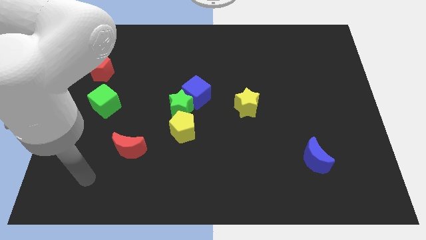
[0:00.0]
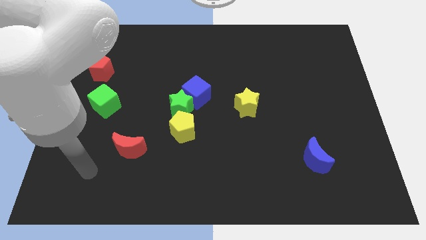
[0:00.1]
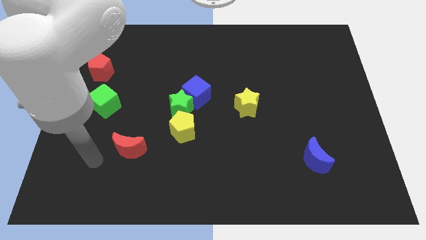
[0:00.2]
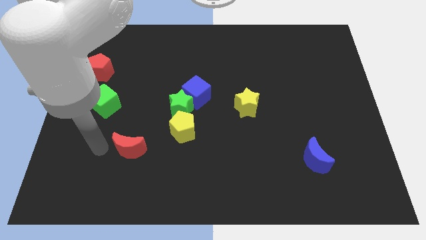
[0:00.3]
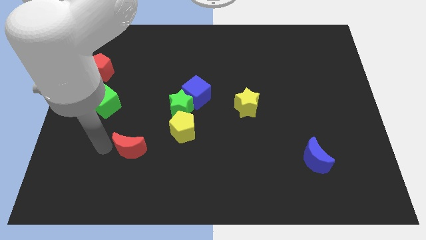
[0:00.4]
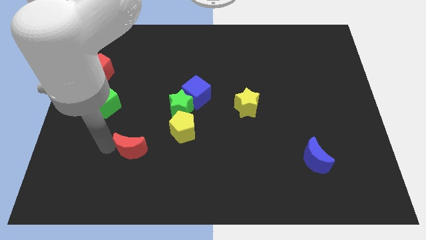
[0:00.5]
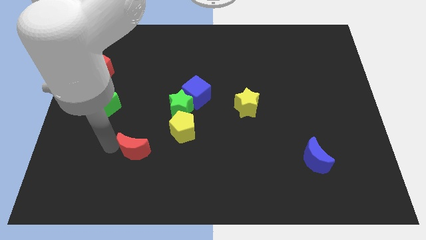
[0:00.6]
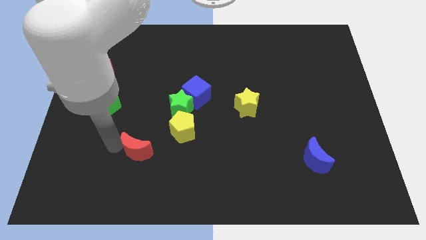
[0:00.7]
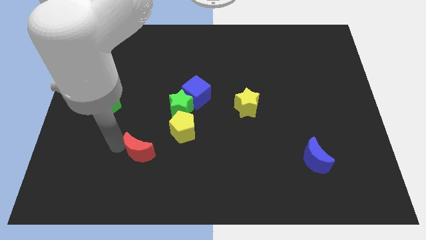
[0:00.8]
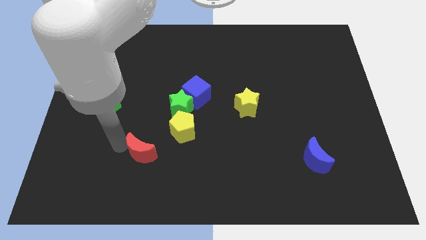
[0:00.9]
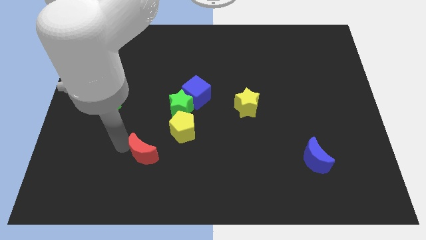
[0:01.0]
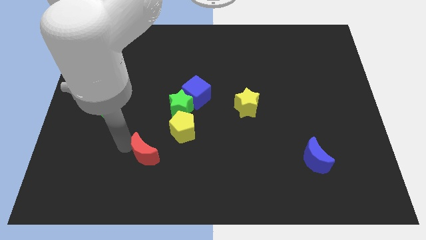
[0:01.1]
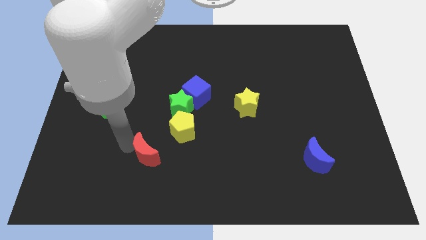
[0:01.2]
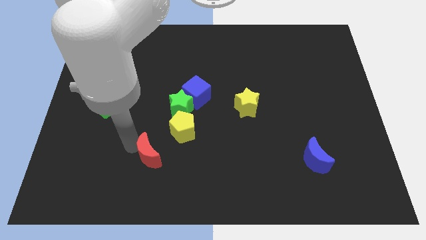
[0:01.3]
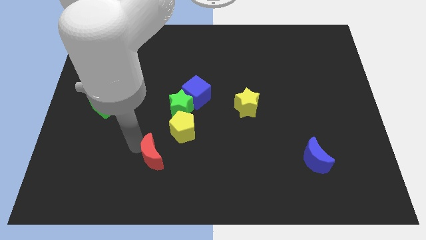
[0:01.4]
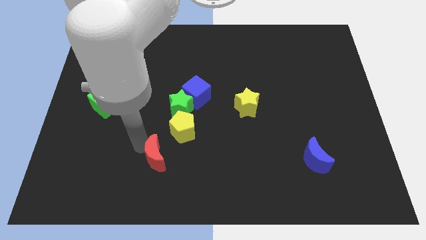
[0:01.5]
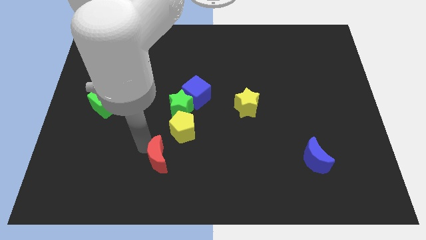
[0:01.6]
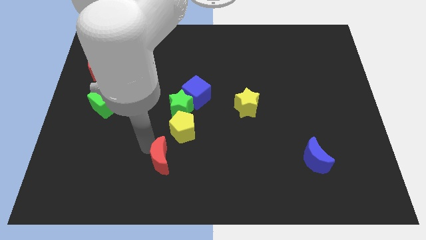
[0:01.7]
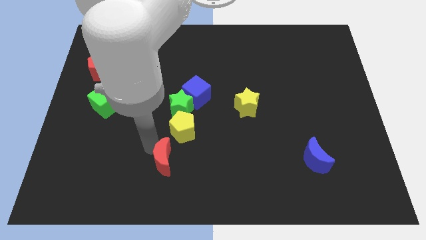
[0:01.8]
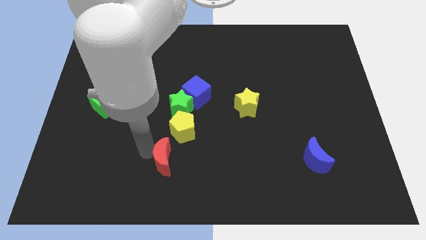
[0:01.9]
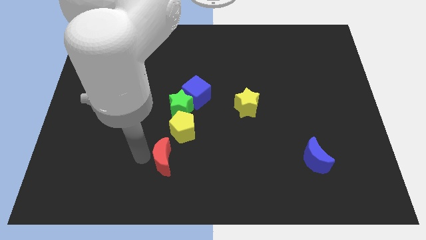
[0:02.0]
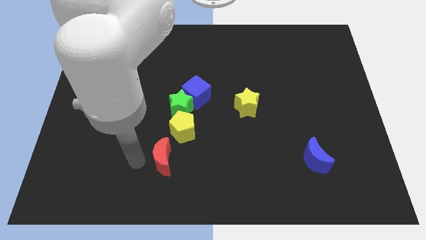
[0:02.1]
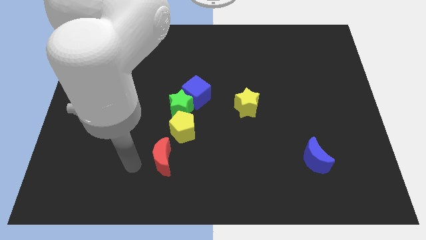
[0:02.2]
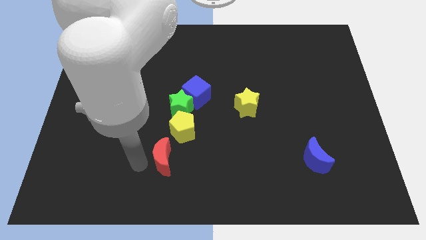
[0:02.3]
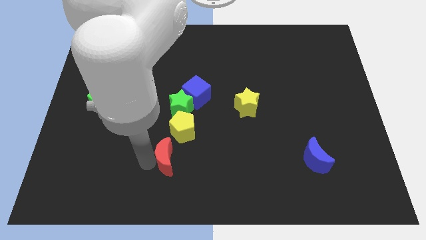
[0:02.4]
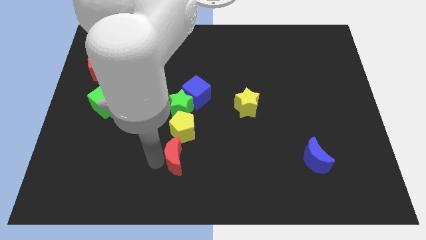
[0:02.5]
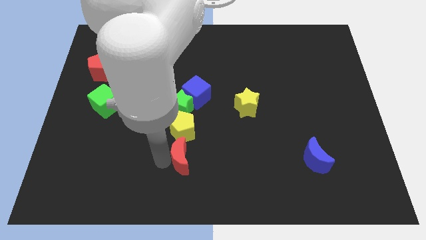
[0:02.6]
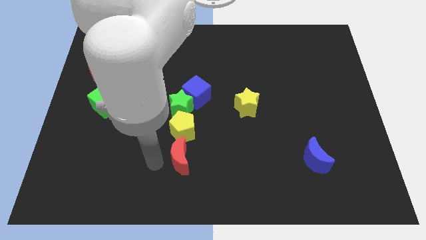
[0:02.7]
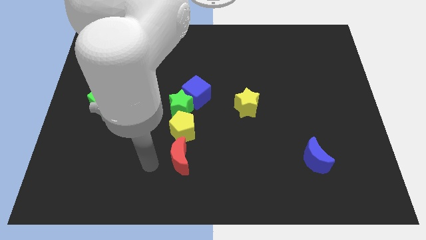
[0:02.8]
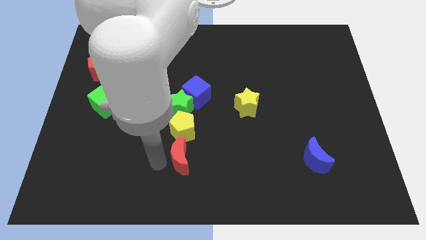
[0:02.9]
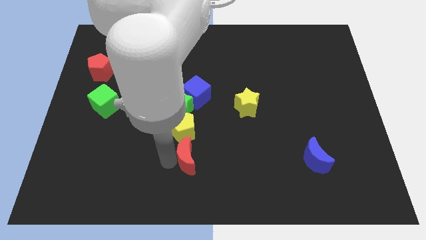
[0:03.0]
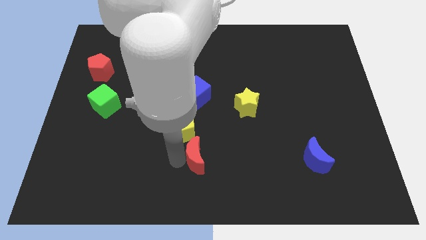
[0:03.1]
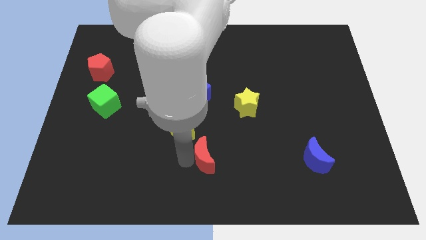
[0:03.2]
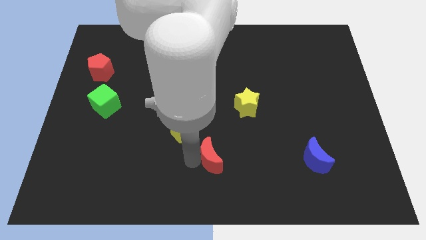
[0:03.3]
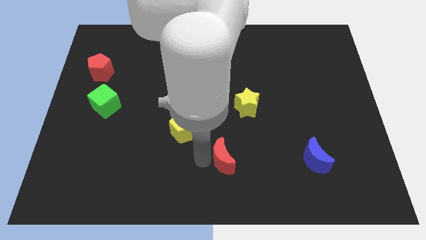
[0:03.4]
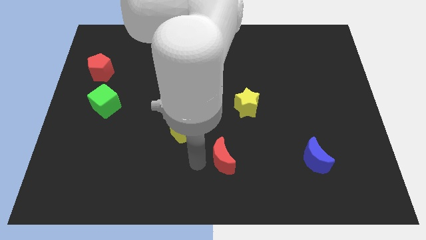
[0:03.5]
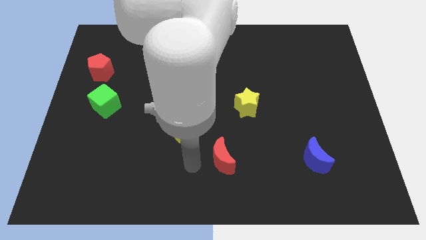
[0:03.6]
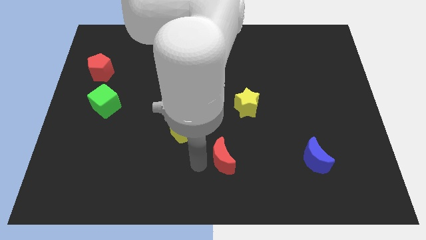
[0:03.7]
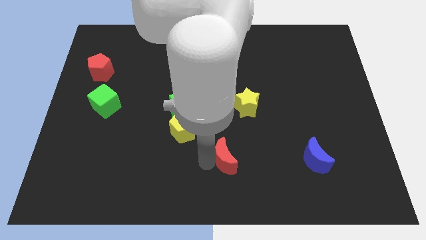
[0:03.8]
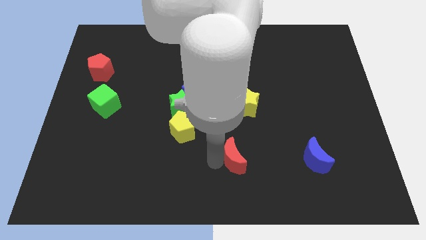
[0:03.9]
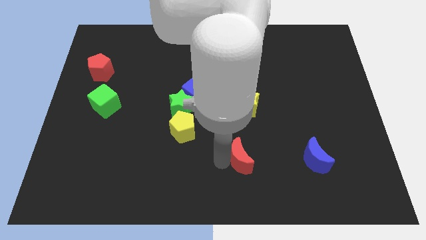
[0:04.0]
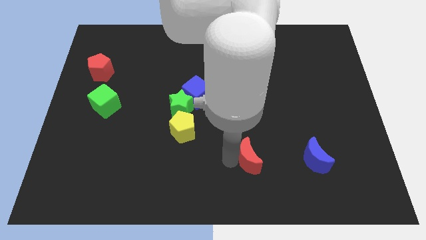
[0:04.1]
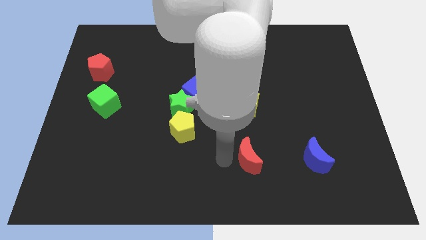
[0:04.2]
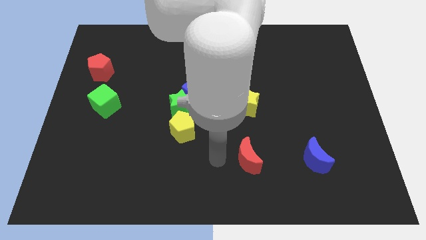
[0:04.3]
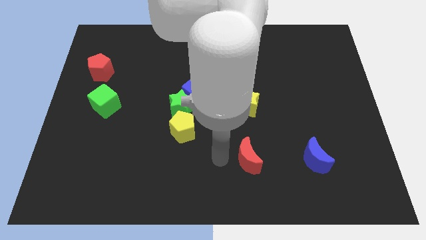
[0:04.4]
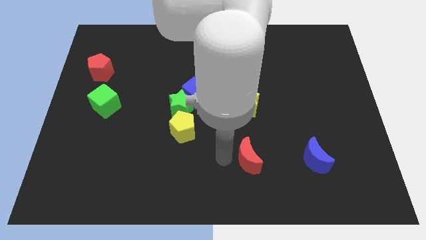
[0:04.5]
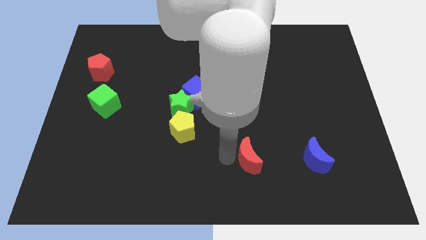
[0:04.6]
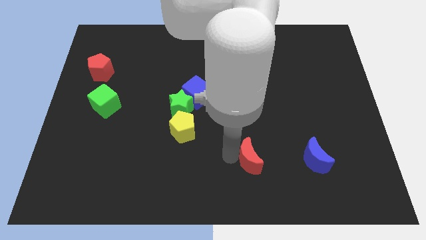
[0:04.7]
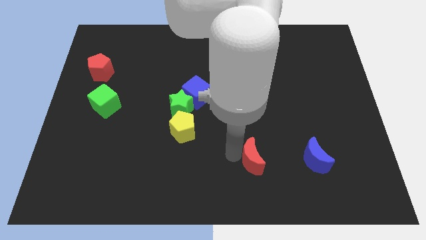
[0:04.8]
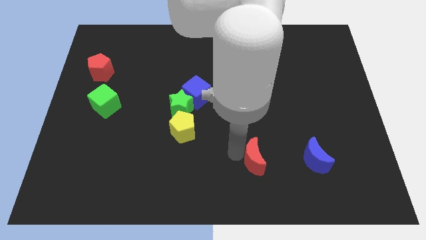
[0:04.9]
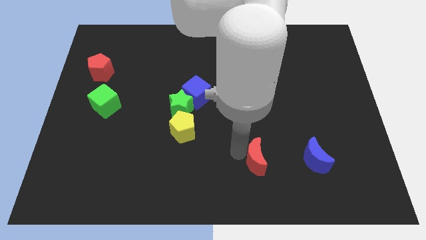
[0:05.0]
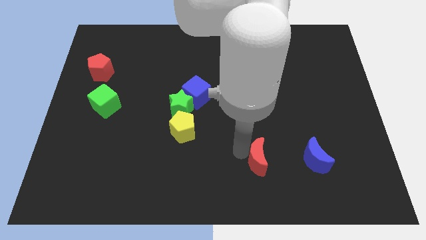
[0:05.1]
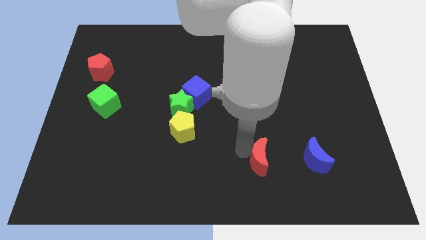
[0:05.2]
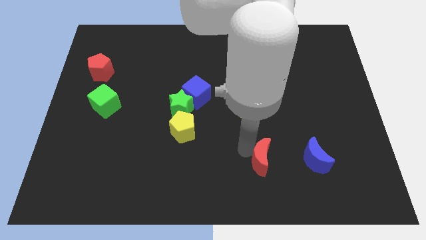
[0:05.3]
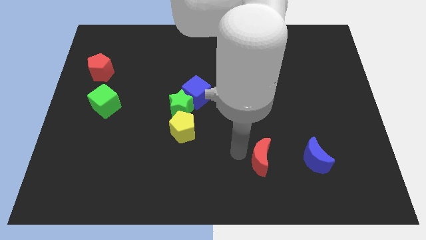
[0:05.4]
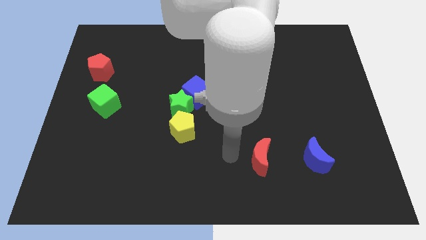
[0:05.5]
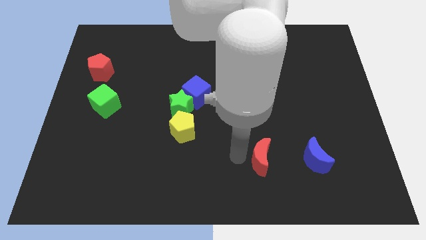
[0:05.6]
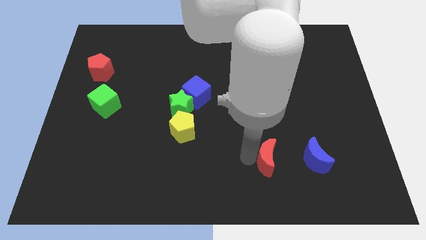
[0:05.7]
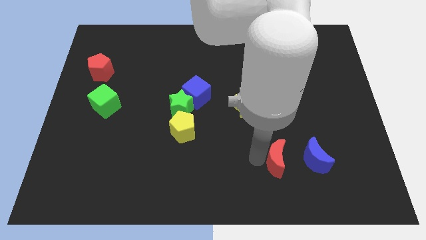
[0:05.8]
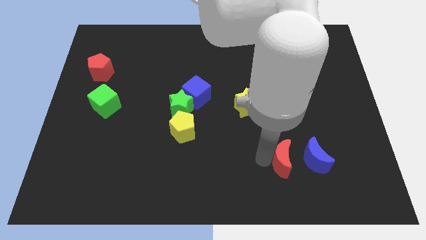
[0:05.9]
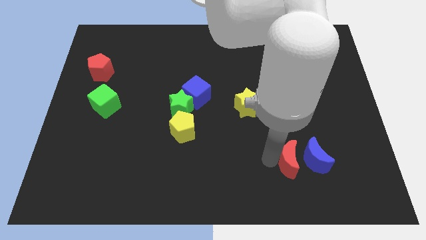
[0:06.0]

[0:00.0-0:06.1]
slide the red moon next to the blue moon
